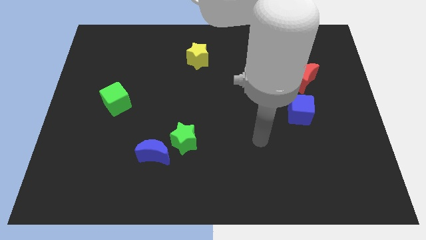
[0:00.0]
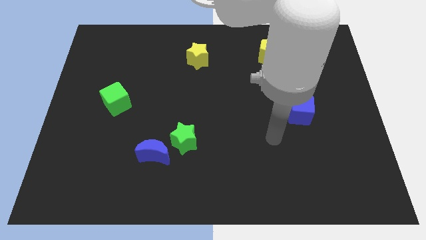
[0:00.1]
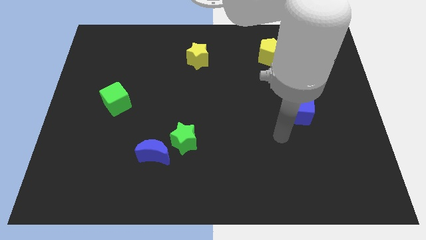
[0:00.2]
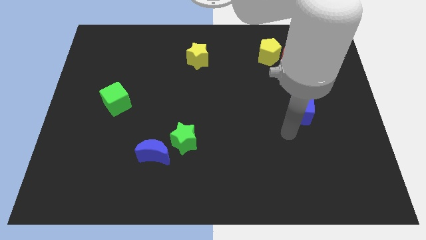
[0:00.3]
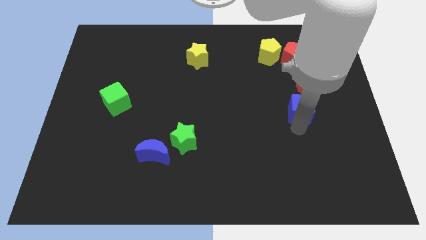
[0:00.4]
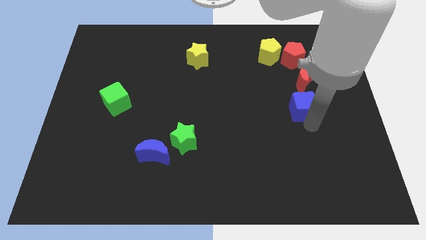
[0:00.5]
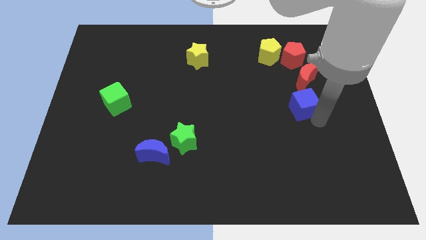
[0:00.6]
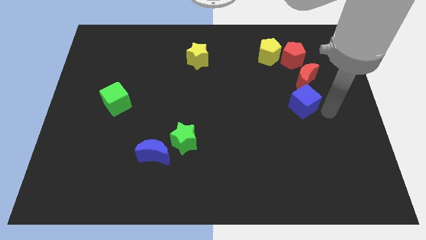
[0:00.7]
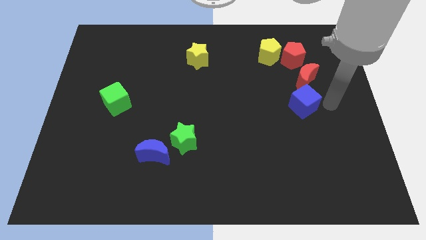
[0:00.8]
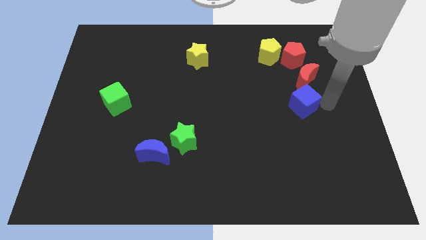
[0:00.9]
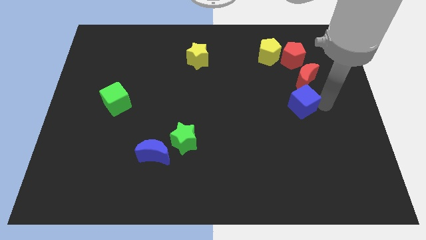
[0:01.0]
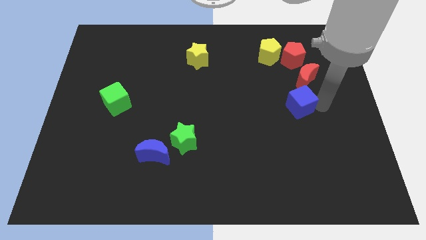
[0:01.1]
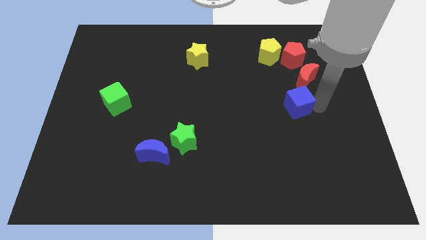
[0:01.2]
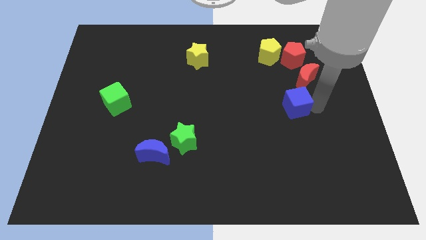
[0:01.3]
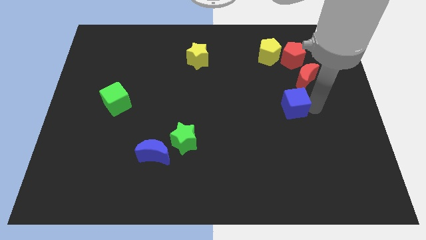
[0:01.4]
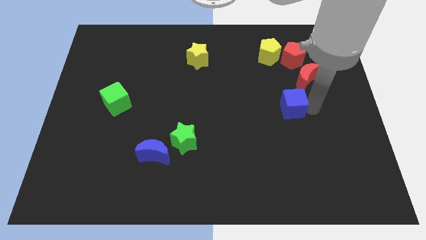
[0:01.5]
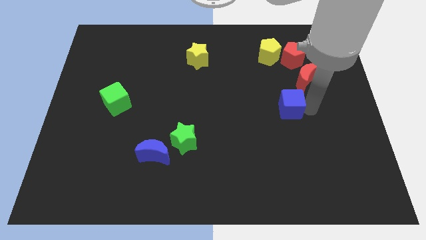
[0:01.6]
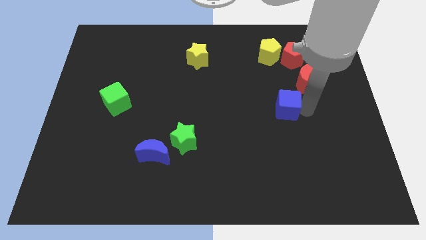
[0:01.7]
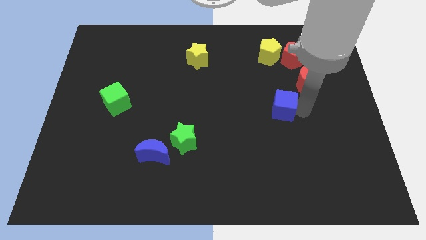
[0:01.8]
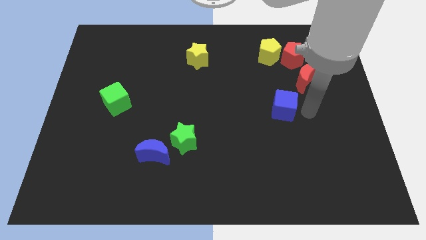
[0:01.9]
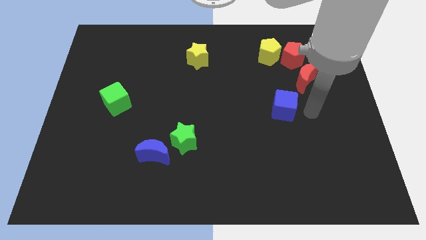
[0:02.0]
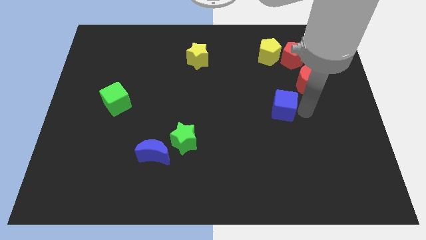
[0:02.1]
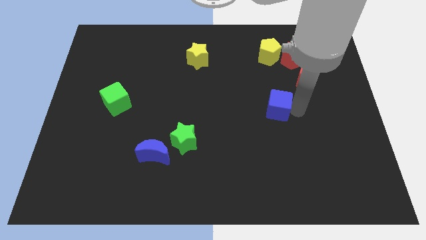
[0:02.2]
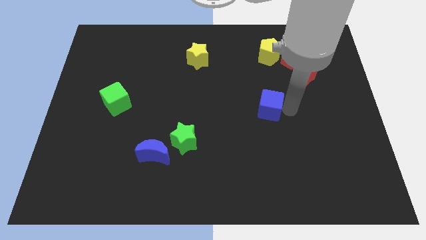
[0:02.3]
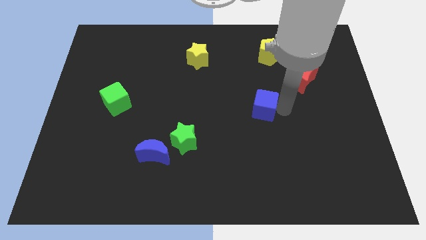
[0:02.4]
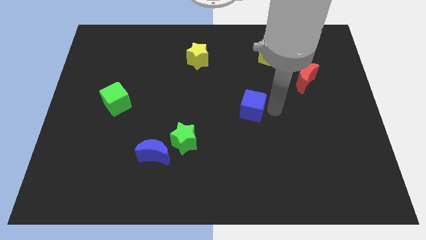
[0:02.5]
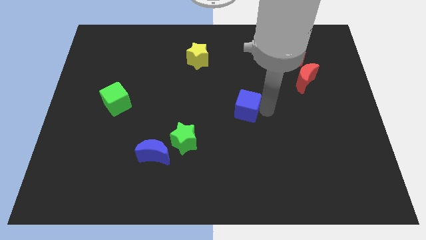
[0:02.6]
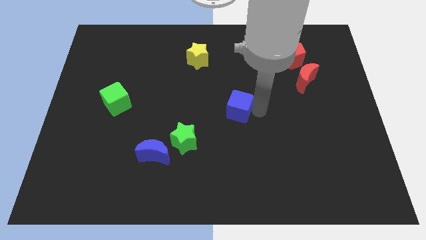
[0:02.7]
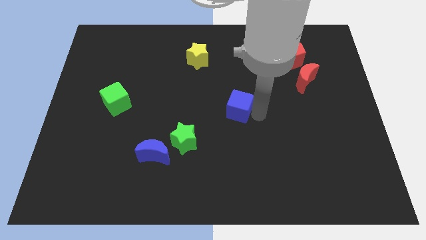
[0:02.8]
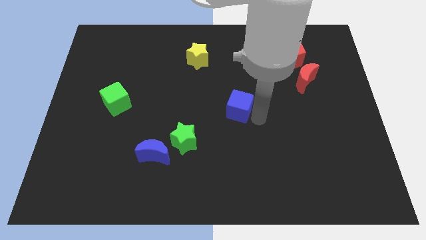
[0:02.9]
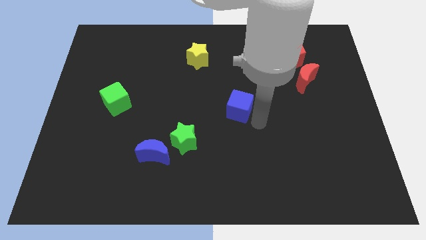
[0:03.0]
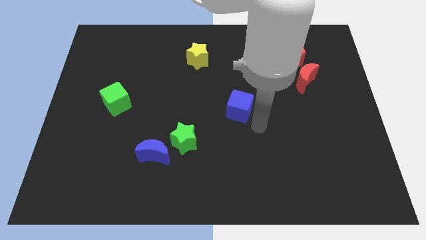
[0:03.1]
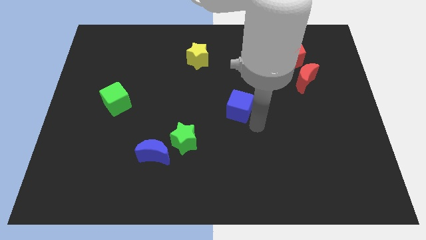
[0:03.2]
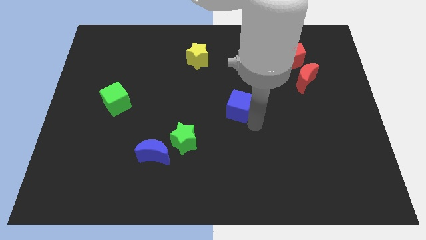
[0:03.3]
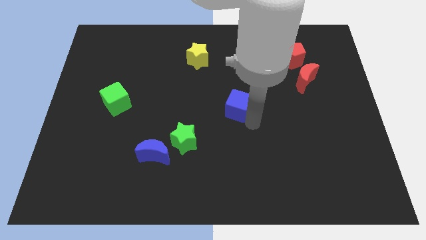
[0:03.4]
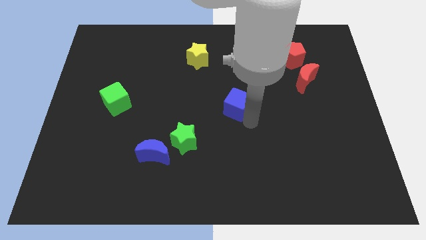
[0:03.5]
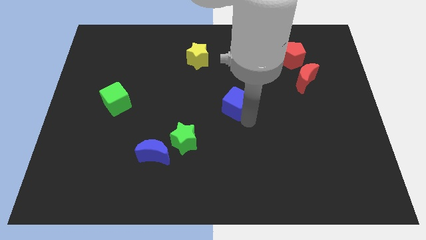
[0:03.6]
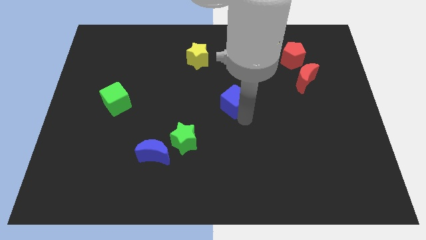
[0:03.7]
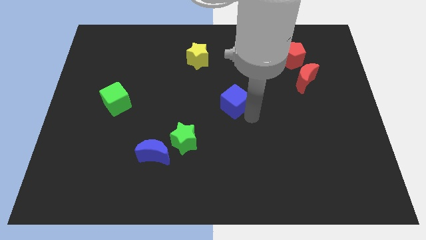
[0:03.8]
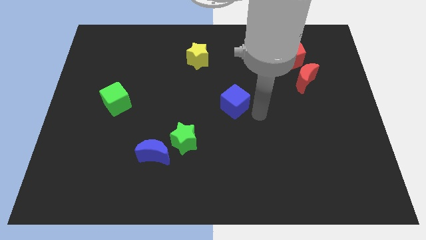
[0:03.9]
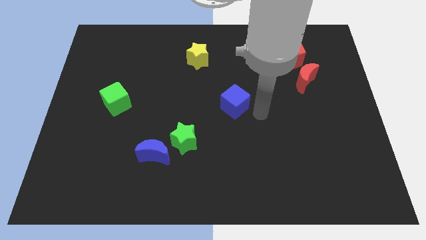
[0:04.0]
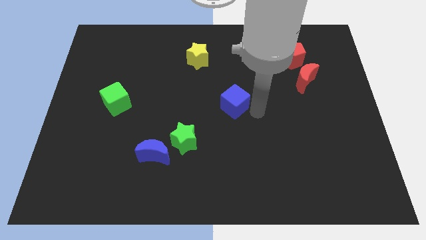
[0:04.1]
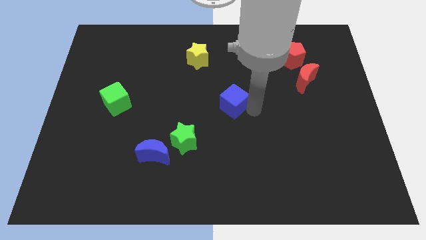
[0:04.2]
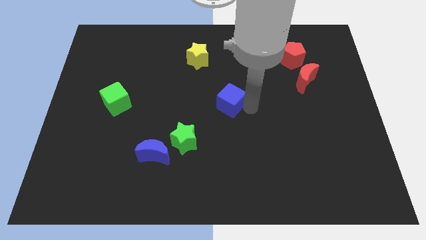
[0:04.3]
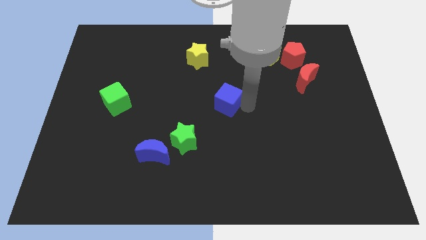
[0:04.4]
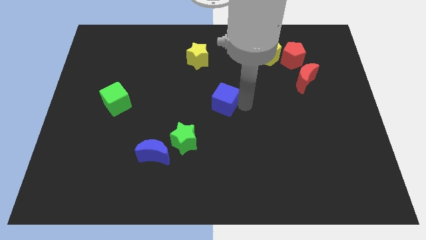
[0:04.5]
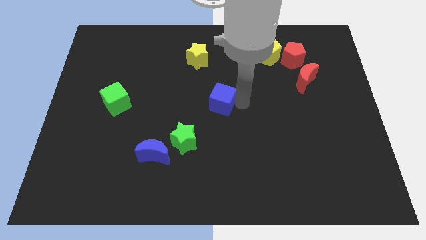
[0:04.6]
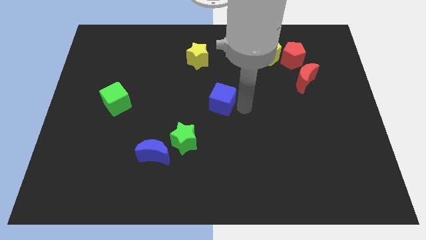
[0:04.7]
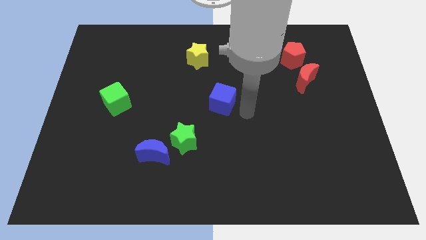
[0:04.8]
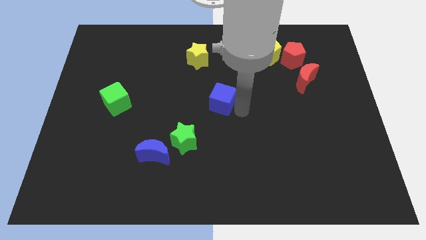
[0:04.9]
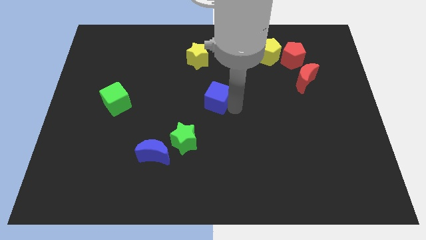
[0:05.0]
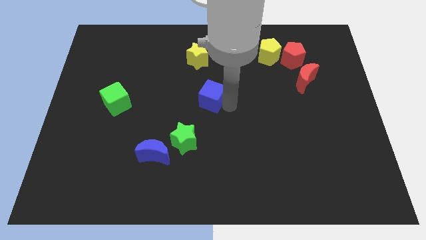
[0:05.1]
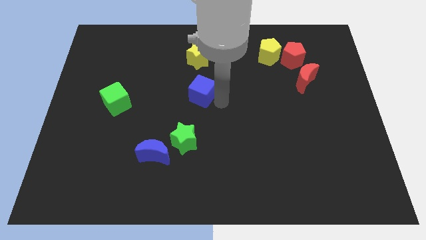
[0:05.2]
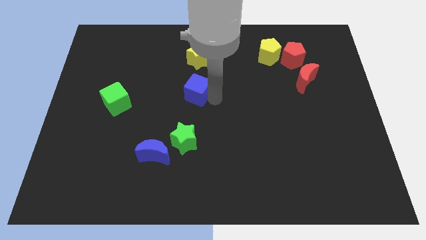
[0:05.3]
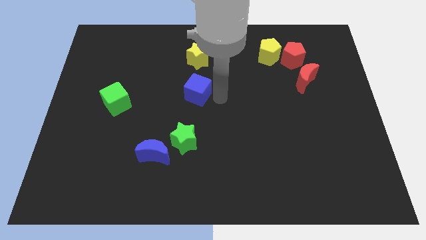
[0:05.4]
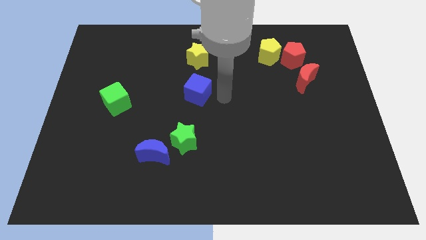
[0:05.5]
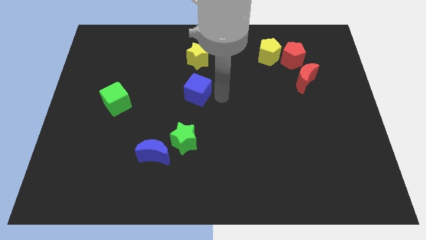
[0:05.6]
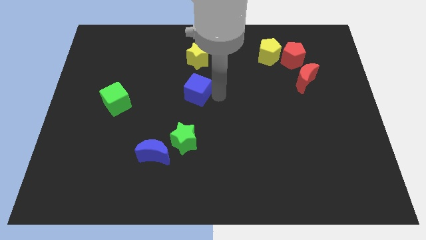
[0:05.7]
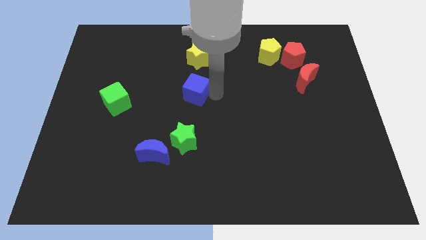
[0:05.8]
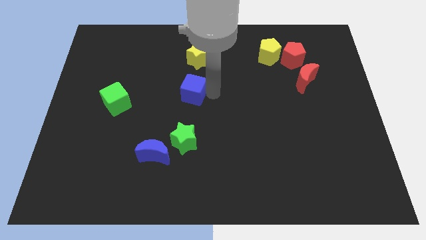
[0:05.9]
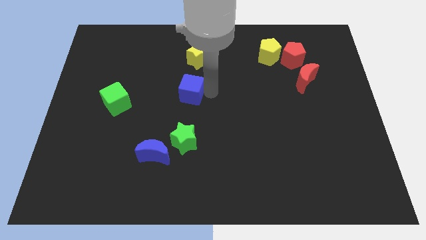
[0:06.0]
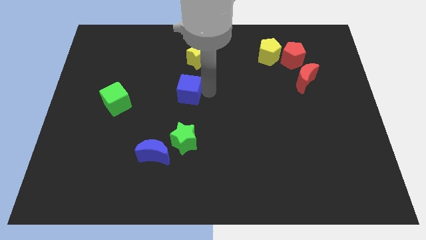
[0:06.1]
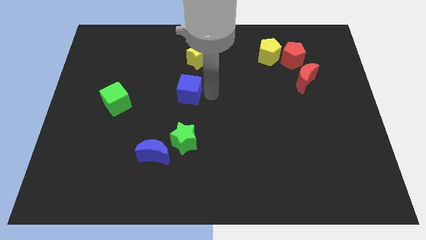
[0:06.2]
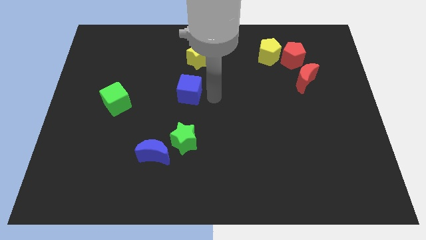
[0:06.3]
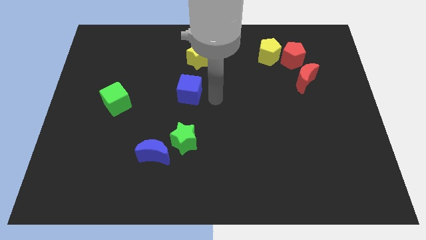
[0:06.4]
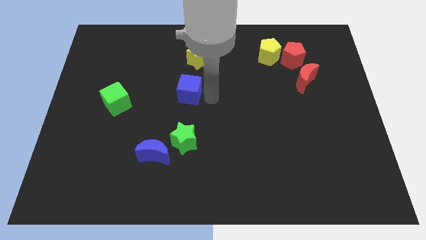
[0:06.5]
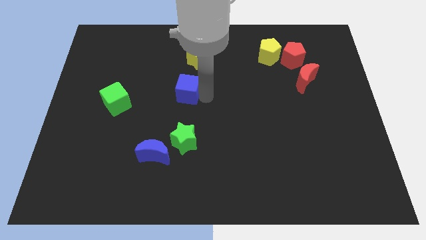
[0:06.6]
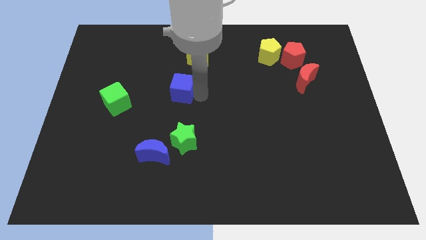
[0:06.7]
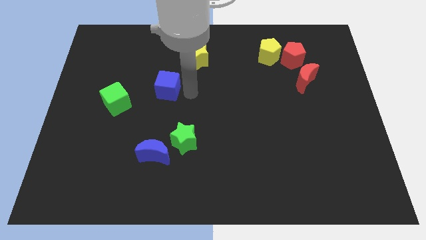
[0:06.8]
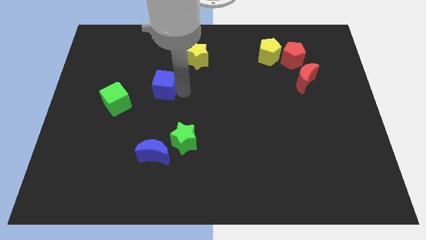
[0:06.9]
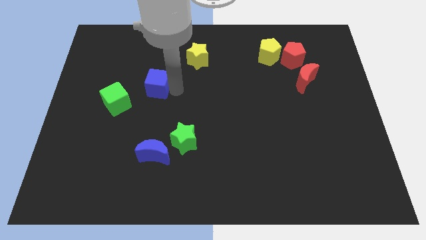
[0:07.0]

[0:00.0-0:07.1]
push the blue cube to the top right of the green cube
